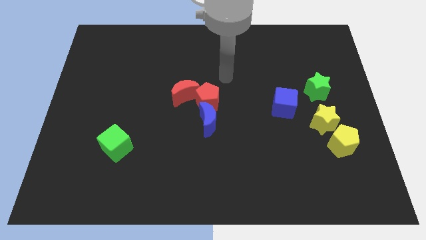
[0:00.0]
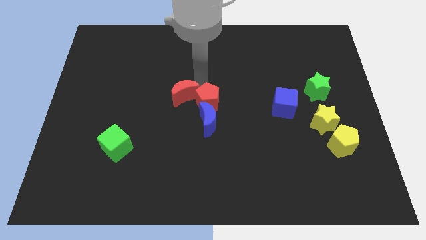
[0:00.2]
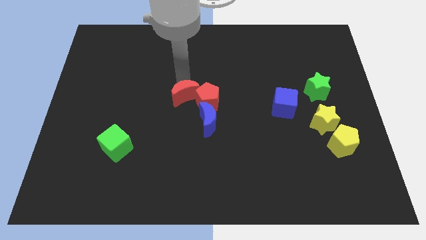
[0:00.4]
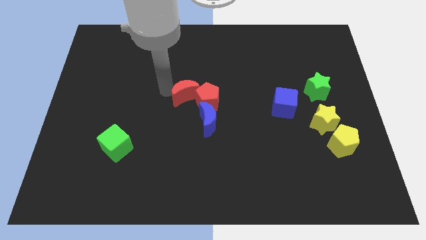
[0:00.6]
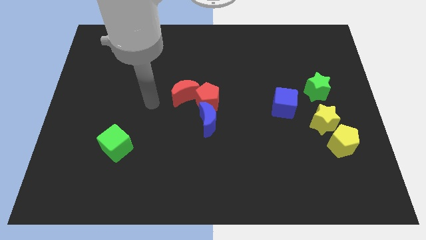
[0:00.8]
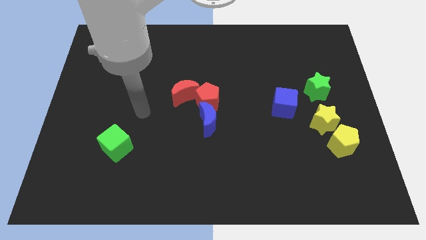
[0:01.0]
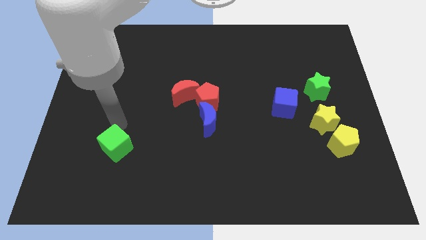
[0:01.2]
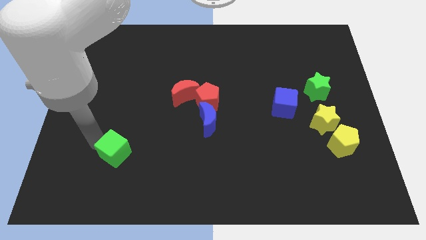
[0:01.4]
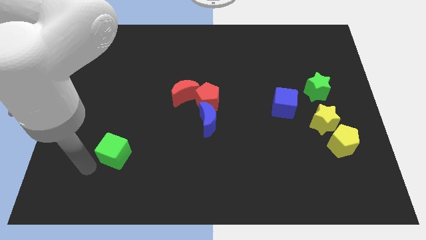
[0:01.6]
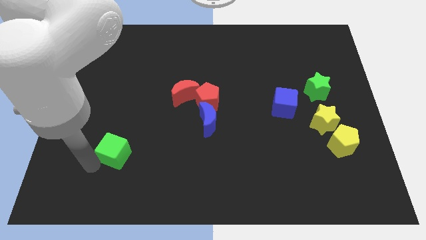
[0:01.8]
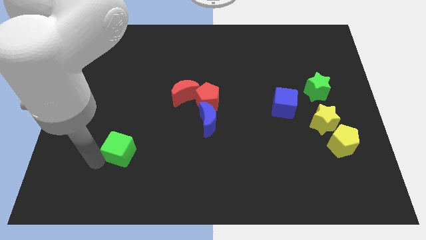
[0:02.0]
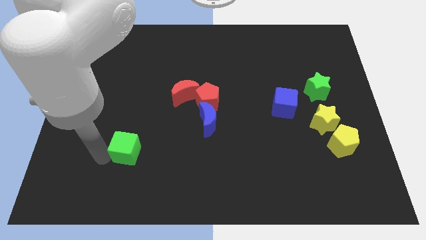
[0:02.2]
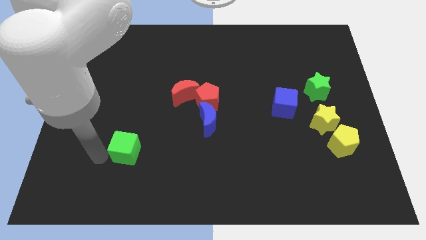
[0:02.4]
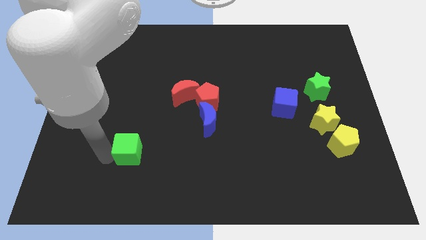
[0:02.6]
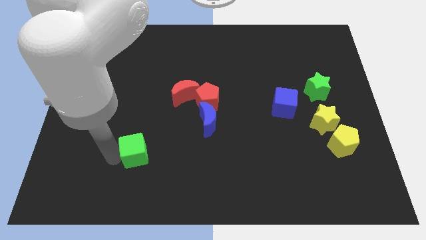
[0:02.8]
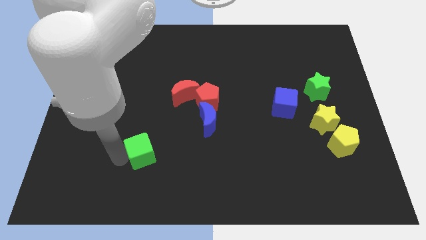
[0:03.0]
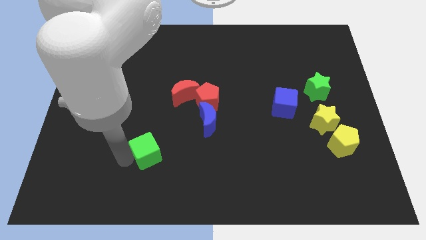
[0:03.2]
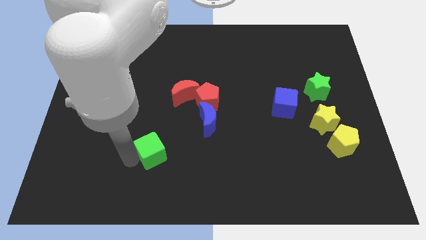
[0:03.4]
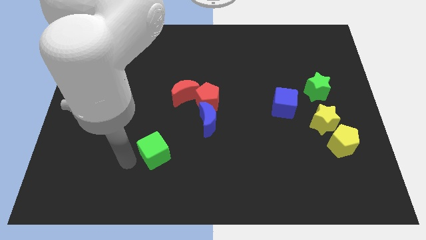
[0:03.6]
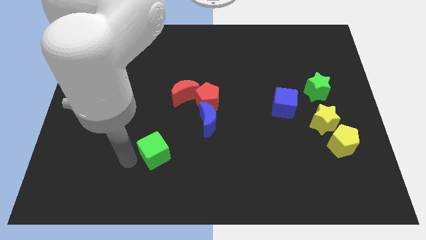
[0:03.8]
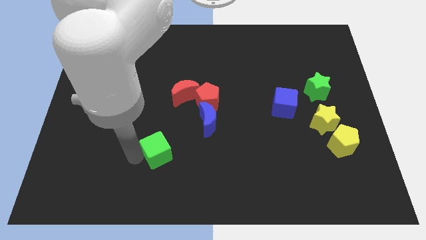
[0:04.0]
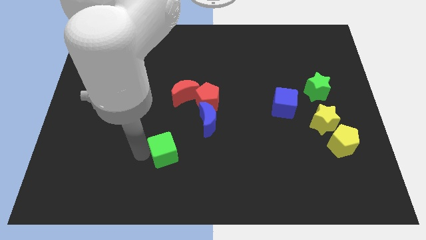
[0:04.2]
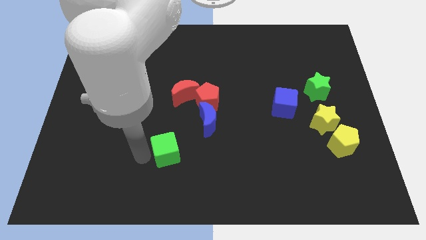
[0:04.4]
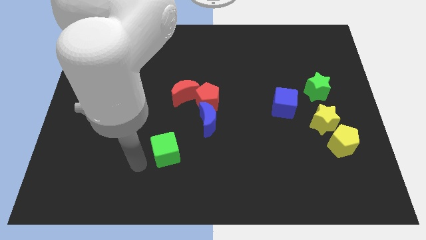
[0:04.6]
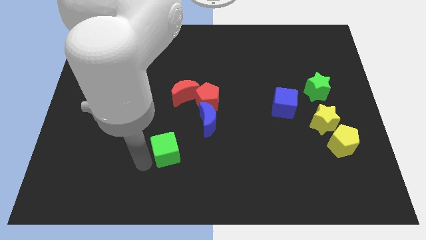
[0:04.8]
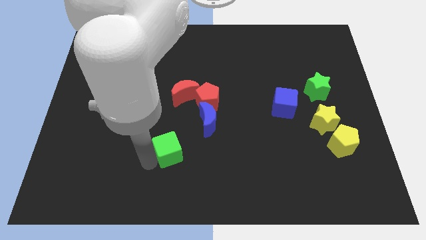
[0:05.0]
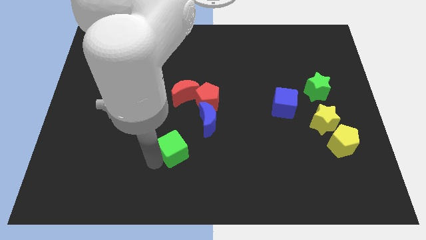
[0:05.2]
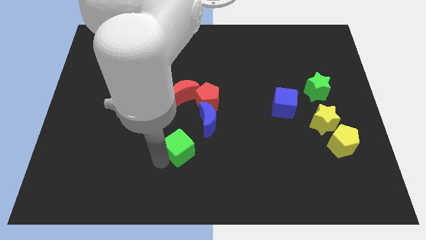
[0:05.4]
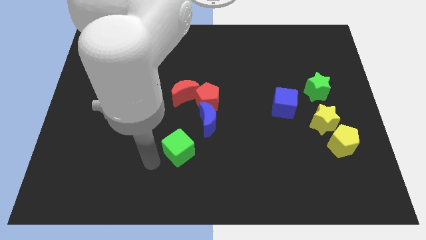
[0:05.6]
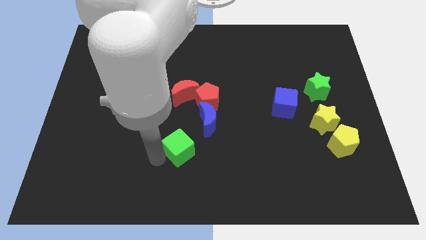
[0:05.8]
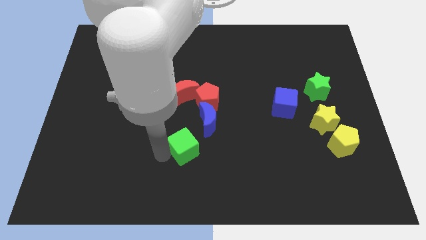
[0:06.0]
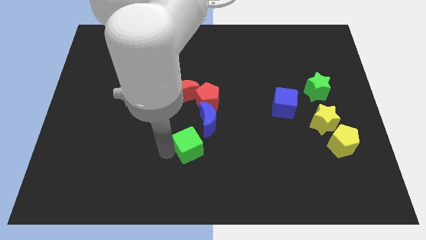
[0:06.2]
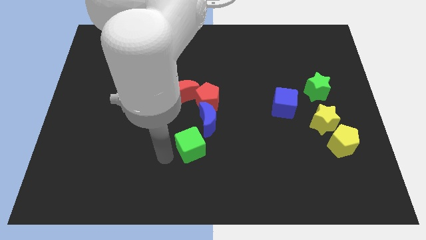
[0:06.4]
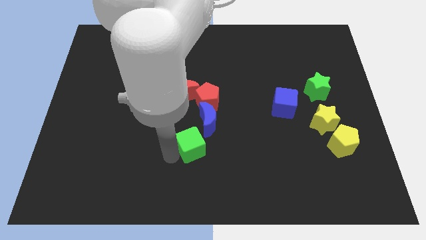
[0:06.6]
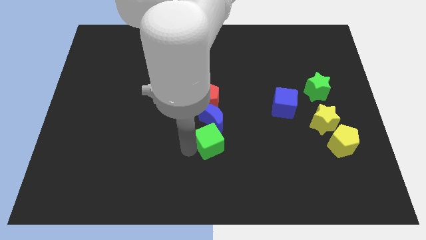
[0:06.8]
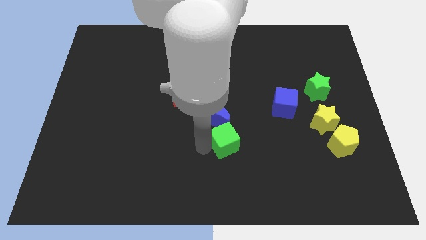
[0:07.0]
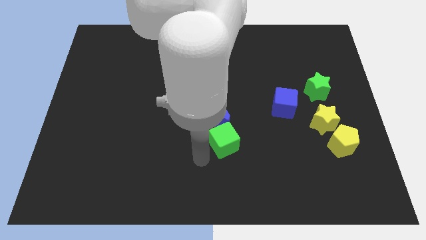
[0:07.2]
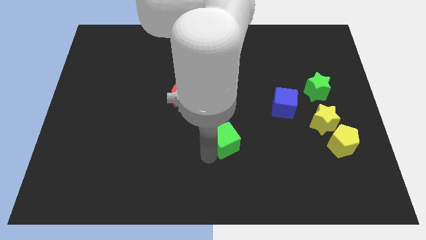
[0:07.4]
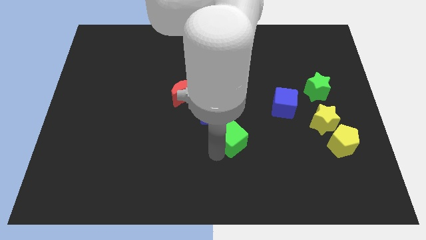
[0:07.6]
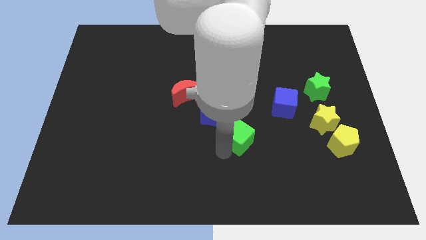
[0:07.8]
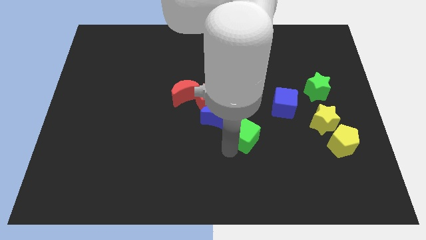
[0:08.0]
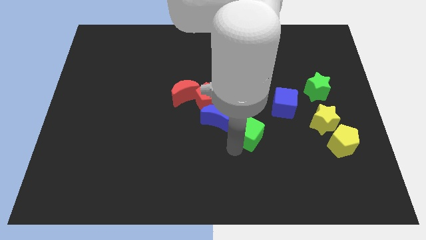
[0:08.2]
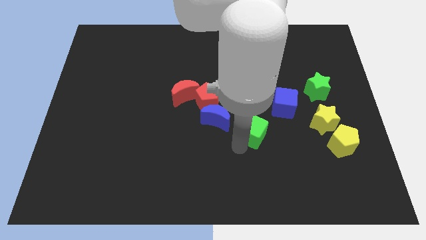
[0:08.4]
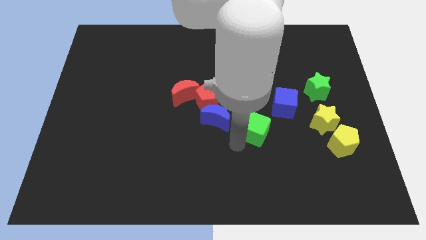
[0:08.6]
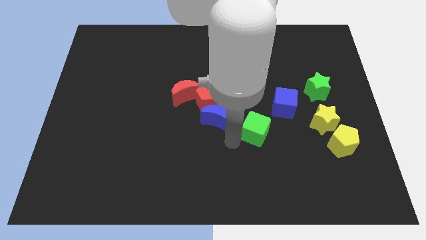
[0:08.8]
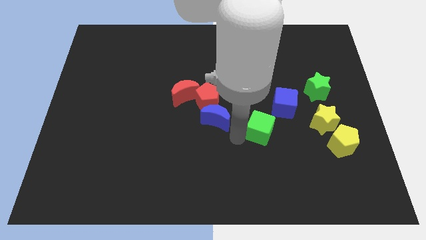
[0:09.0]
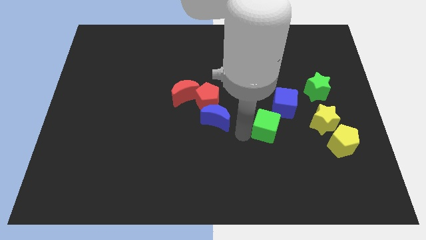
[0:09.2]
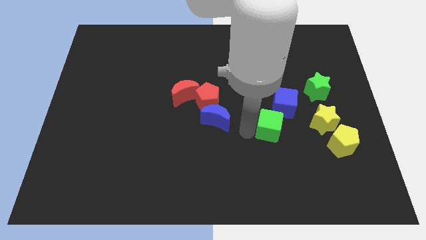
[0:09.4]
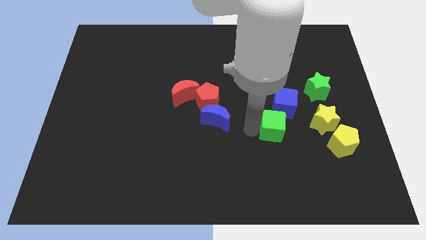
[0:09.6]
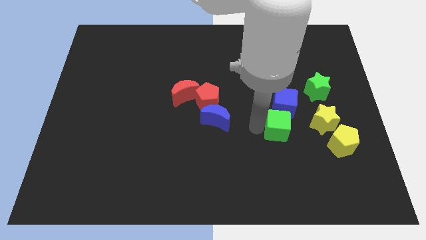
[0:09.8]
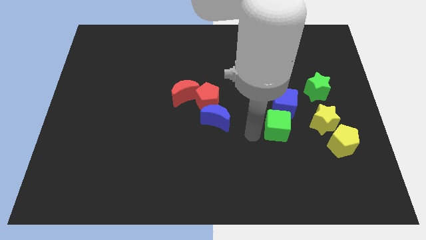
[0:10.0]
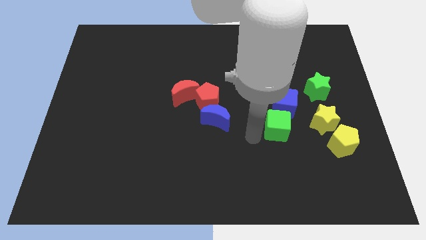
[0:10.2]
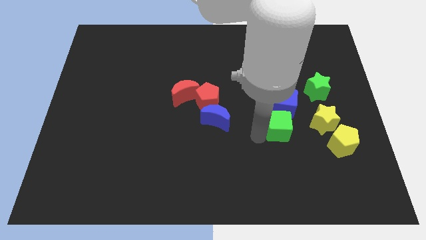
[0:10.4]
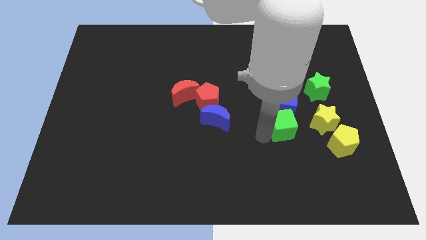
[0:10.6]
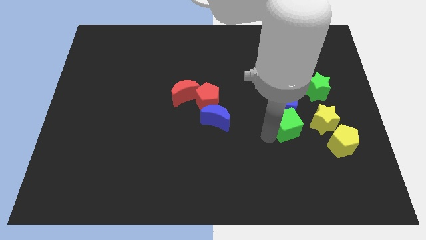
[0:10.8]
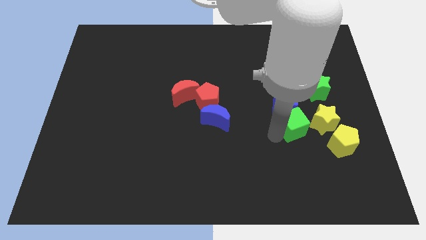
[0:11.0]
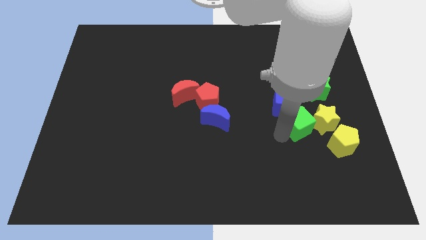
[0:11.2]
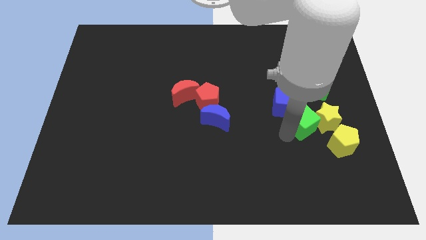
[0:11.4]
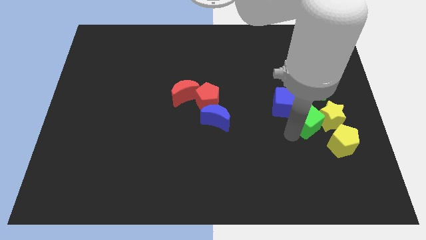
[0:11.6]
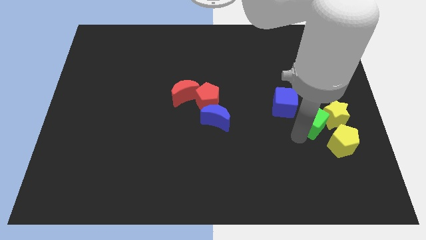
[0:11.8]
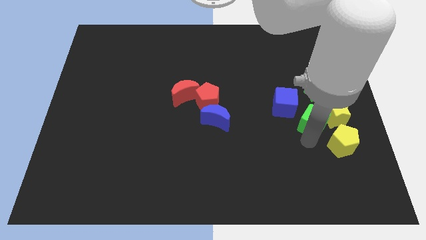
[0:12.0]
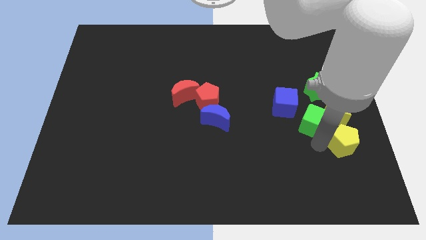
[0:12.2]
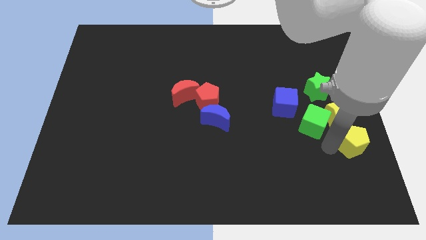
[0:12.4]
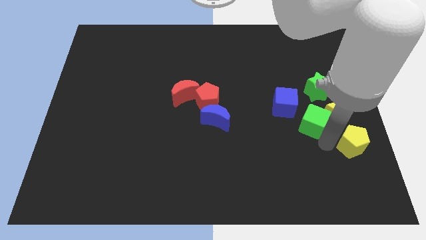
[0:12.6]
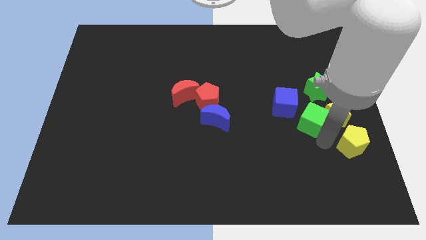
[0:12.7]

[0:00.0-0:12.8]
slide the green cube to the right side of the blue cube
